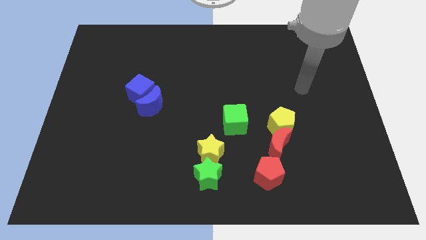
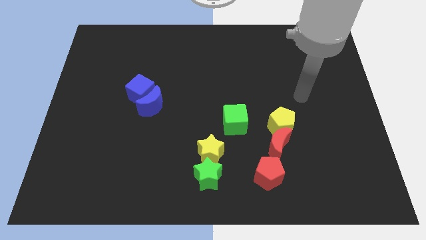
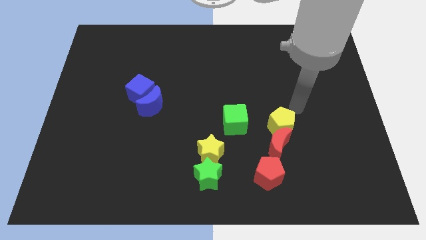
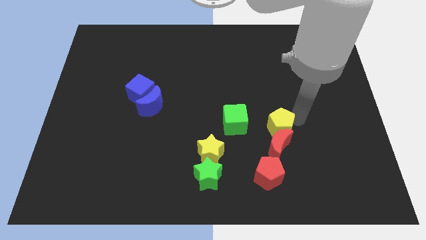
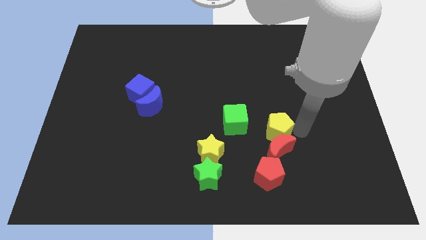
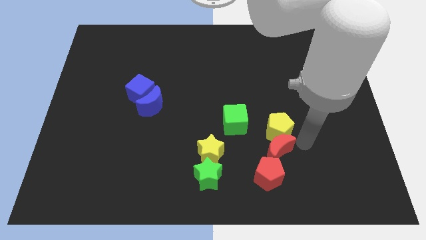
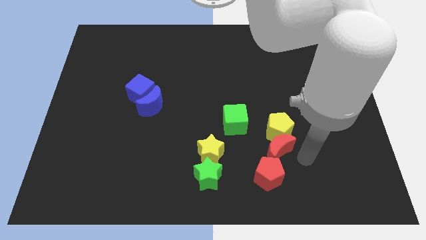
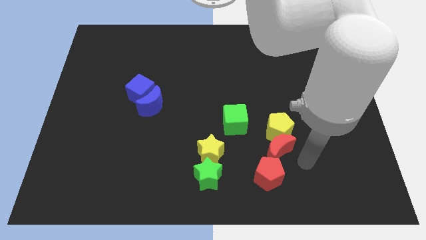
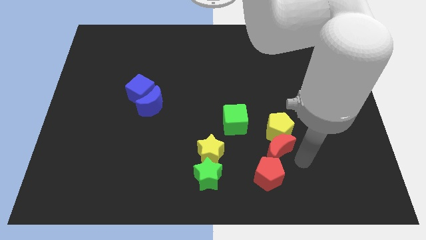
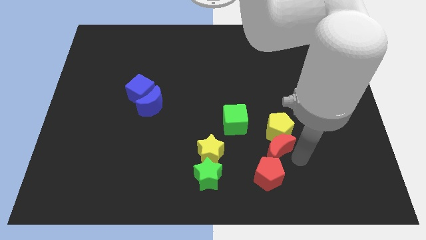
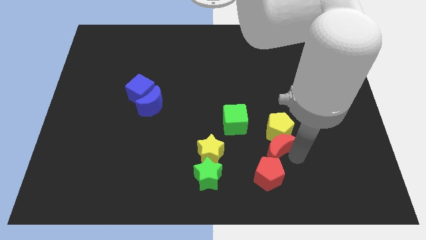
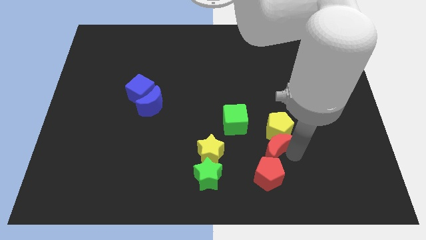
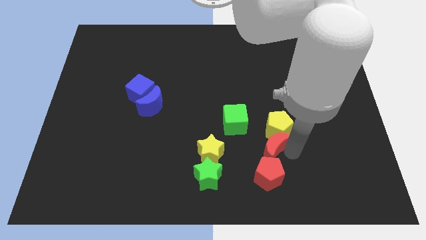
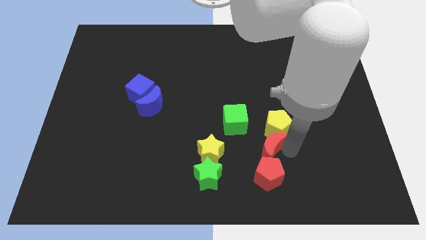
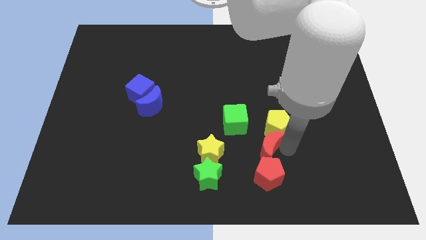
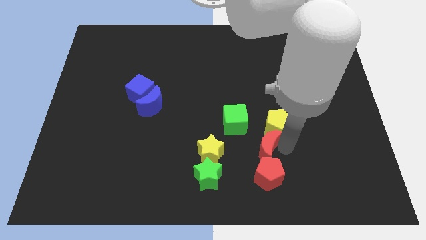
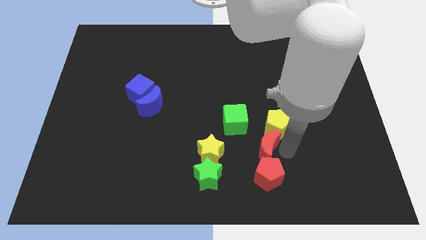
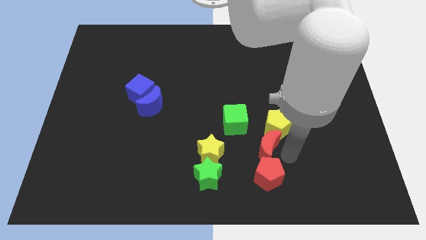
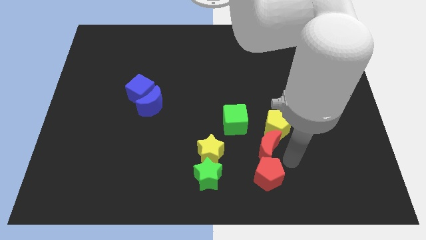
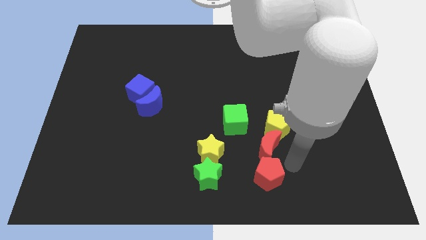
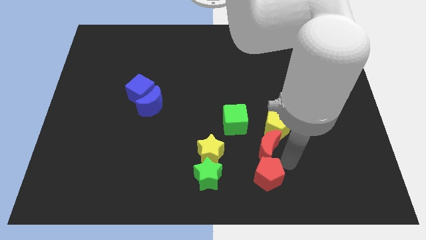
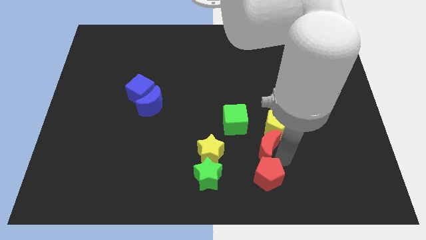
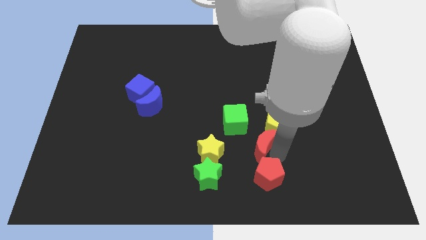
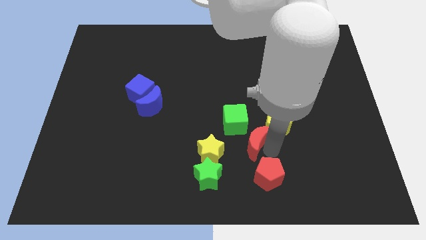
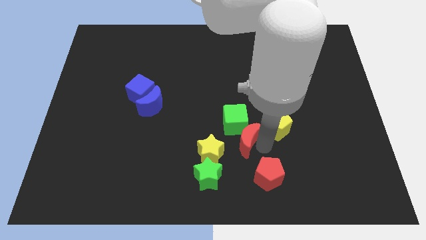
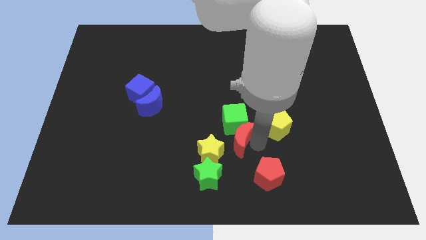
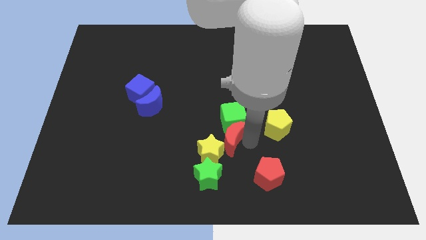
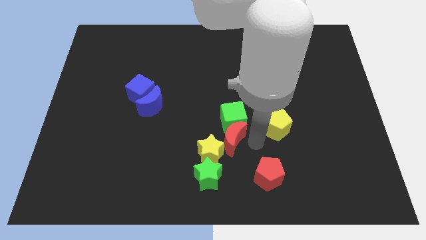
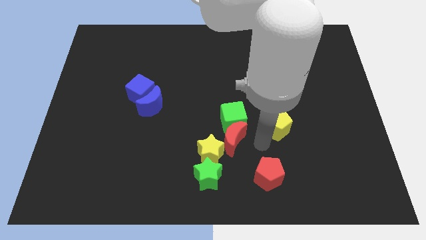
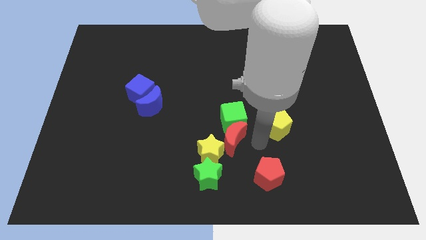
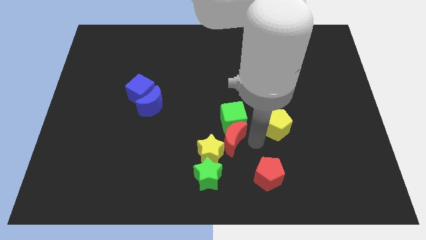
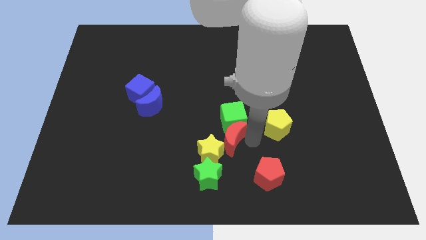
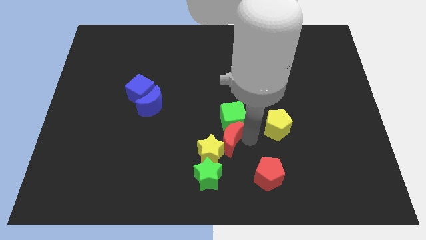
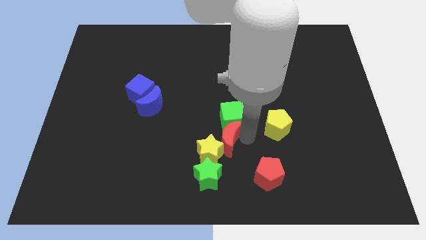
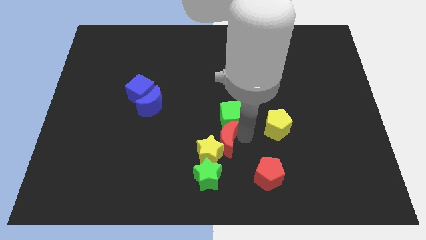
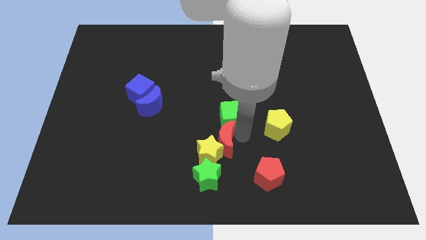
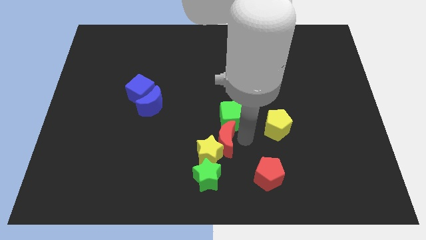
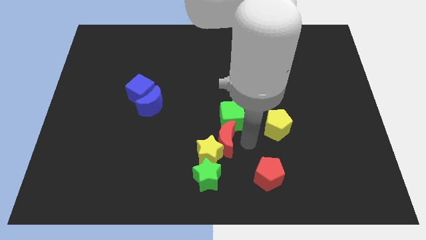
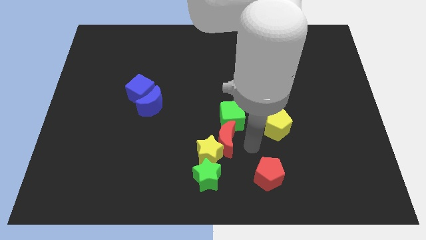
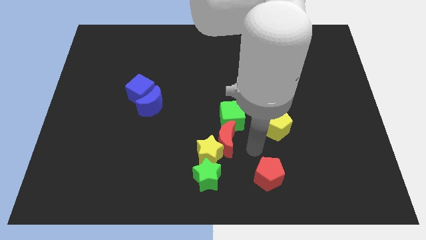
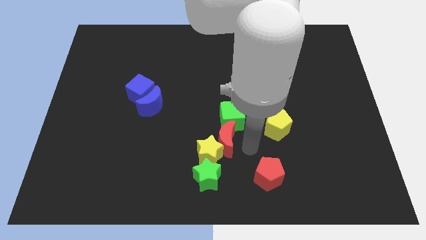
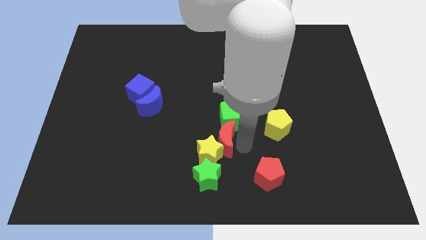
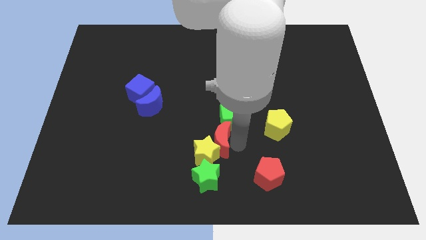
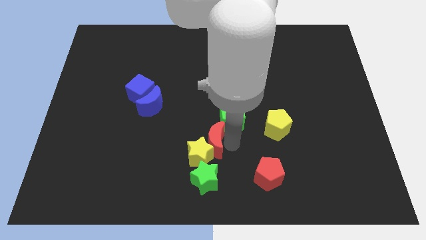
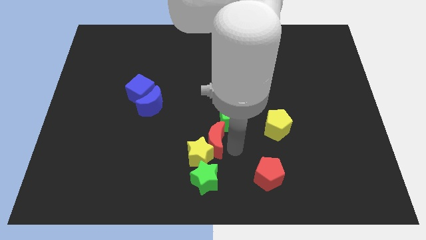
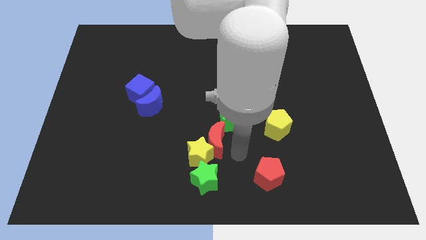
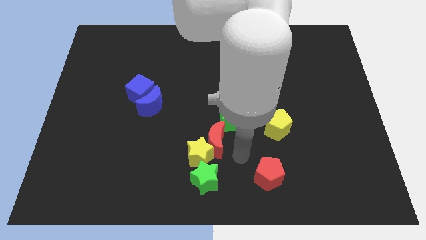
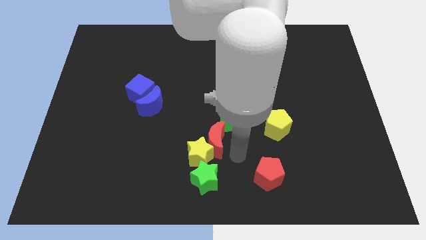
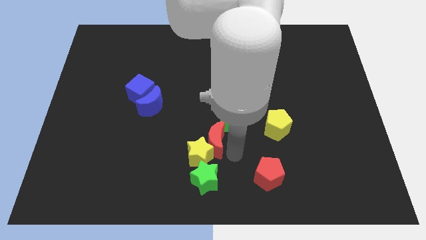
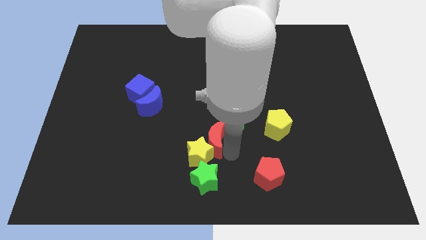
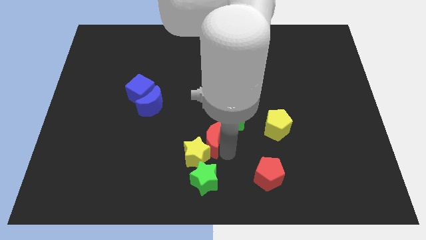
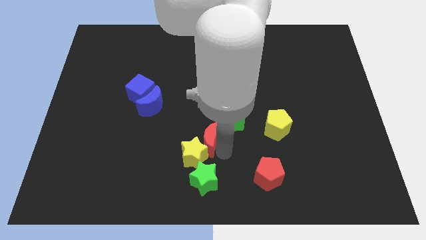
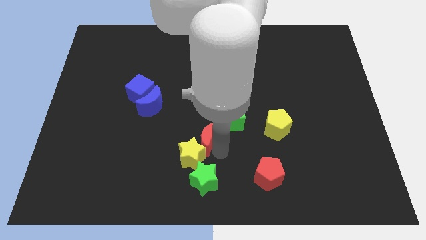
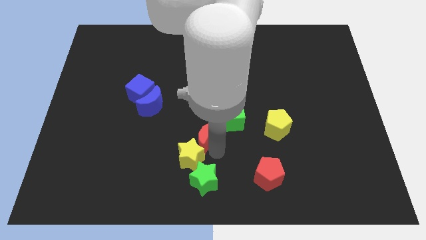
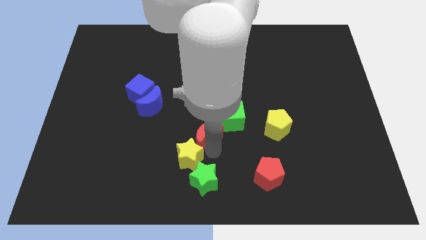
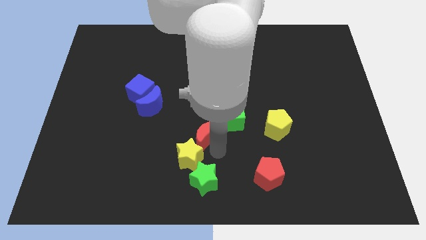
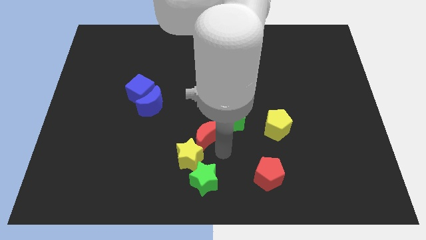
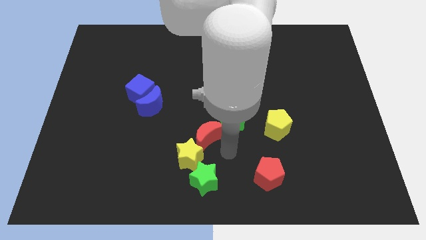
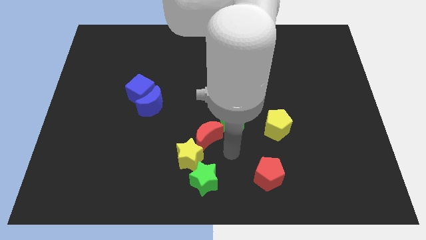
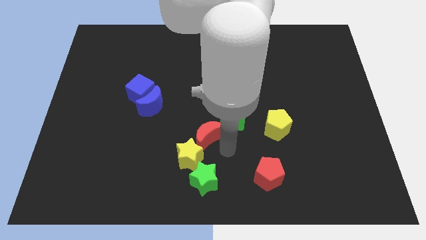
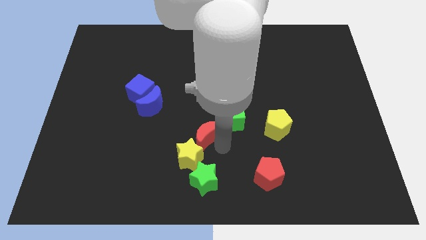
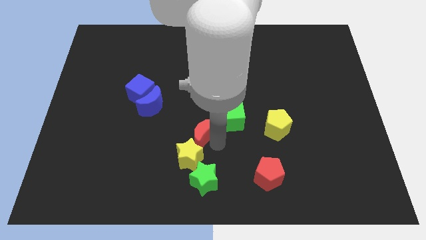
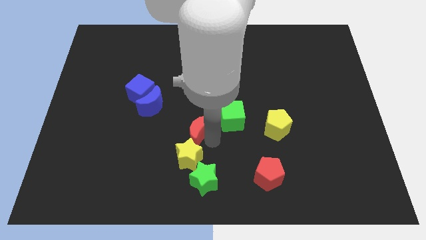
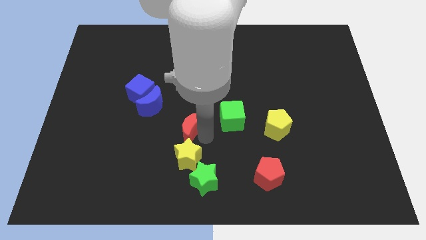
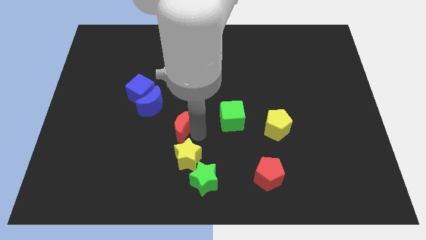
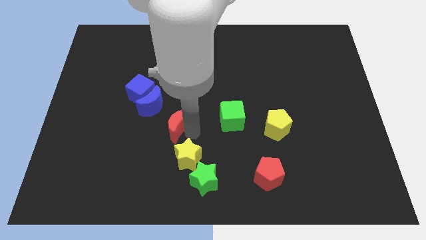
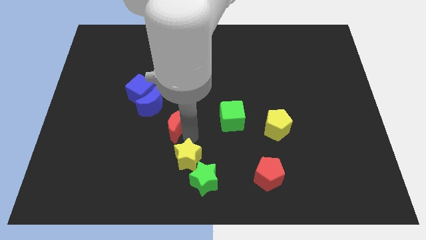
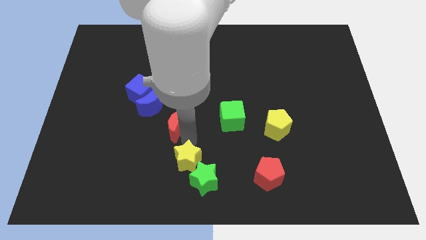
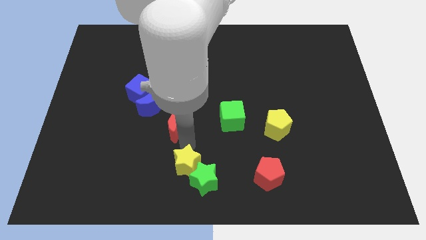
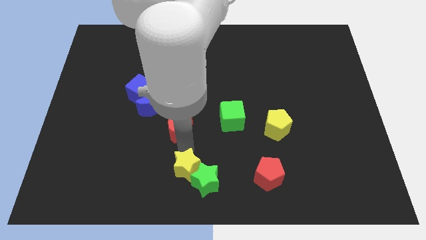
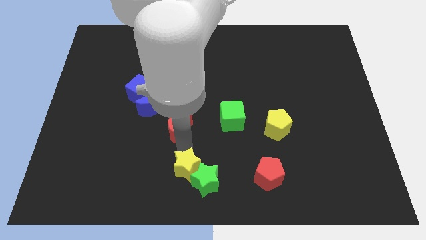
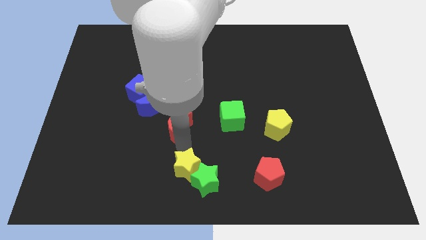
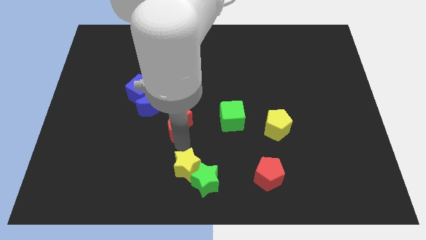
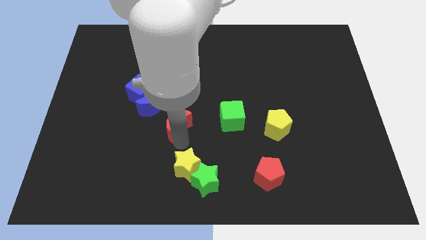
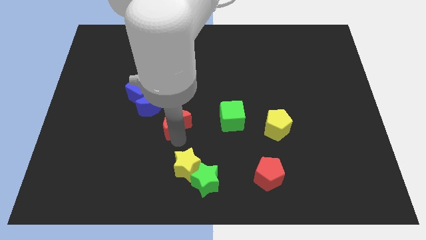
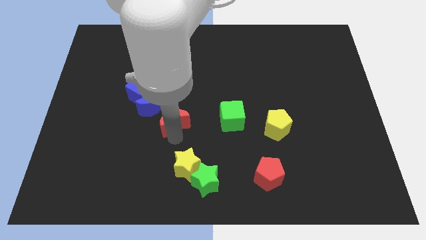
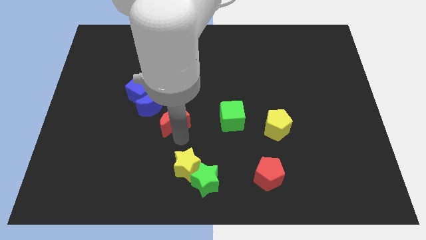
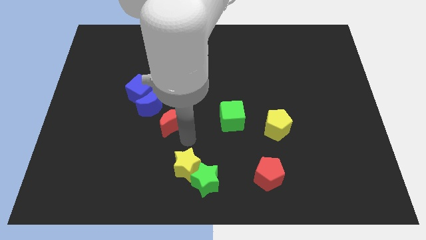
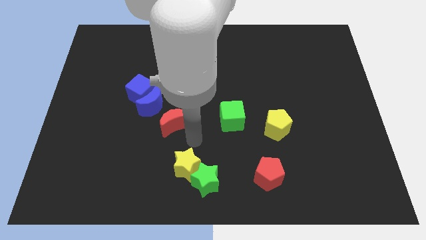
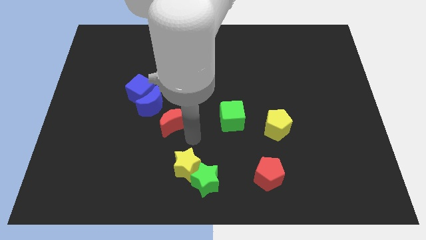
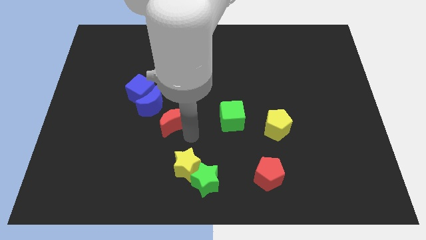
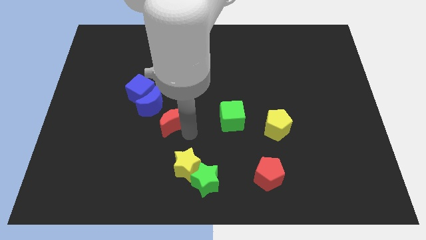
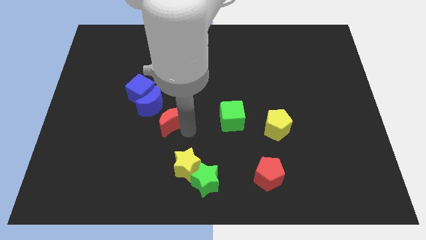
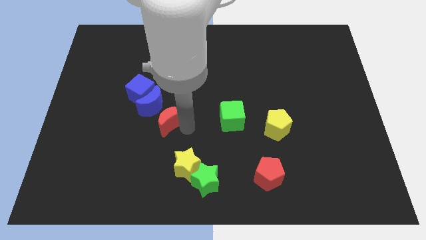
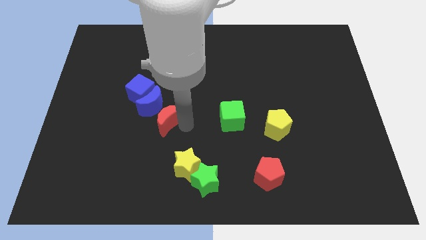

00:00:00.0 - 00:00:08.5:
push the red moon next to the blue moon
